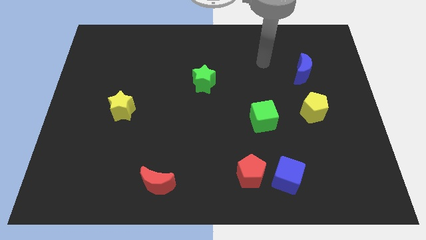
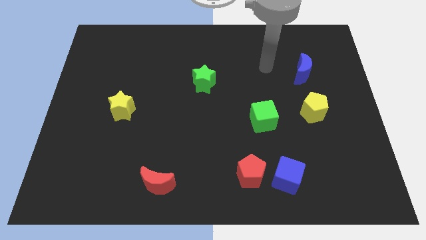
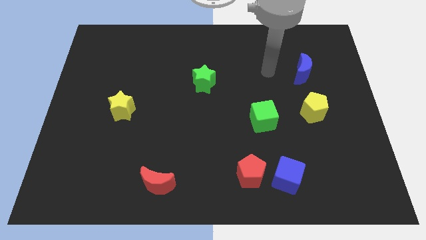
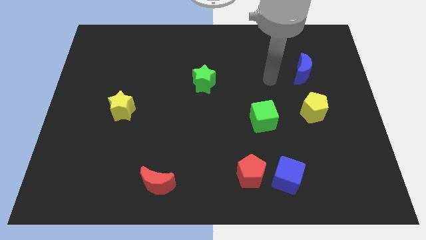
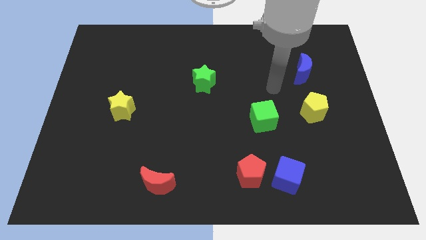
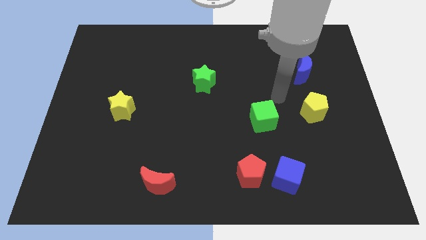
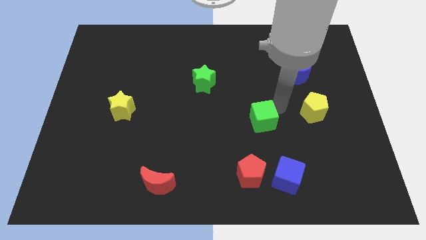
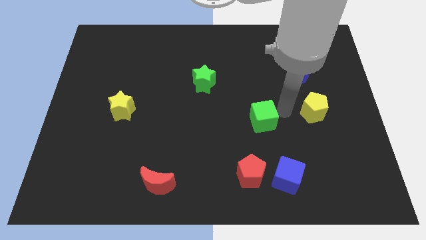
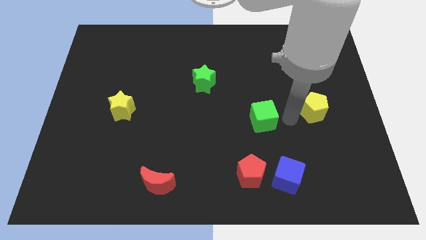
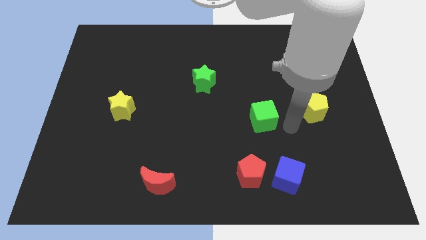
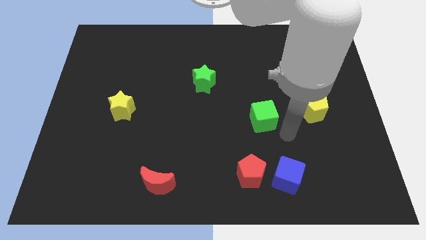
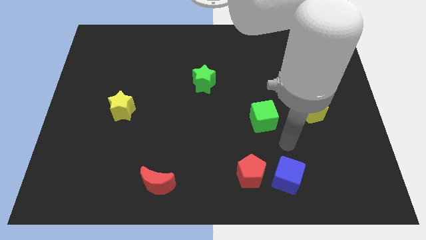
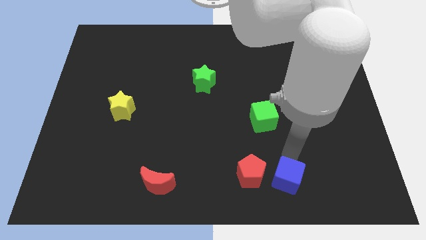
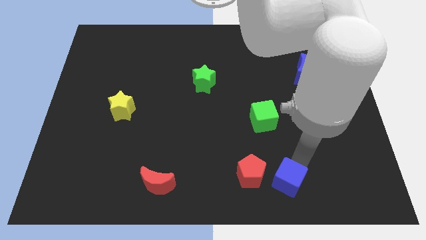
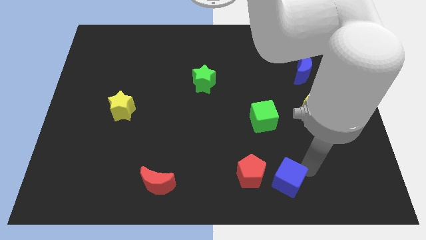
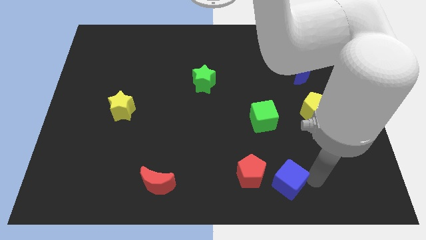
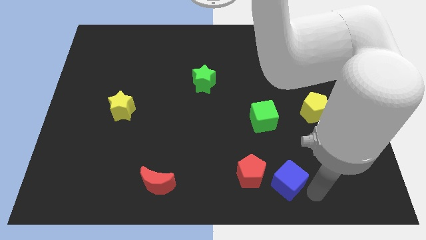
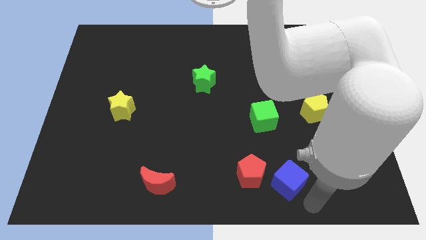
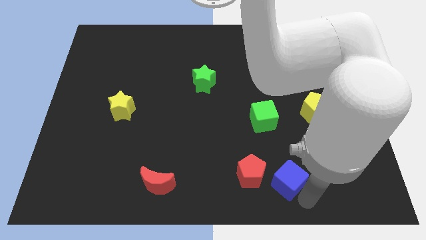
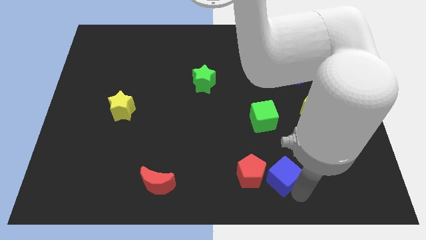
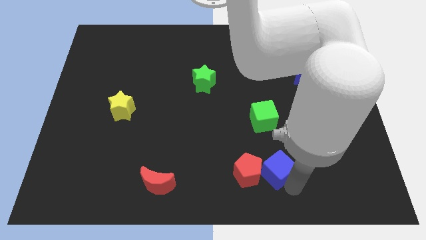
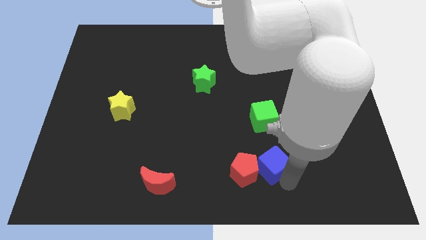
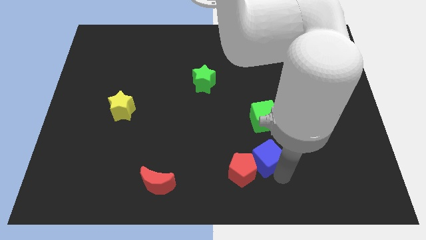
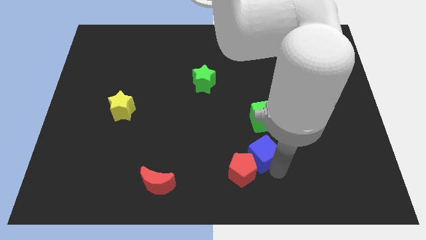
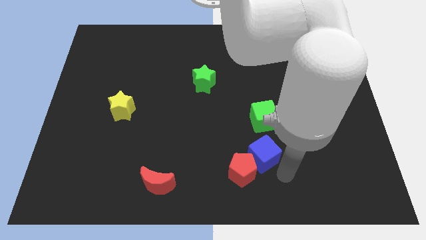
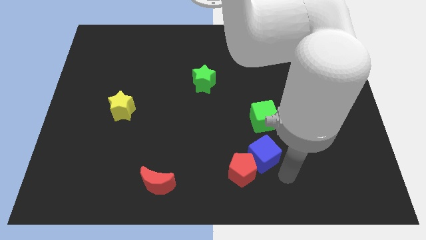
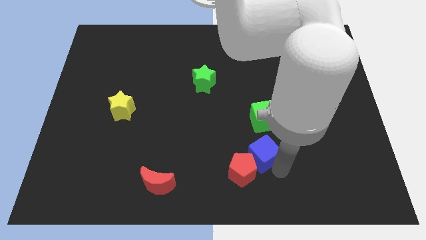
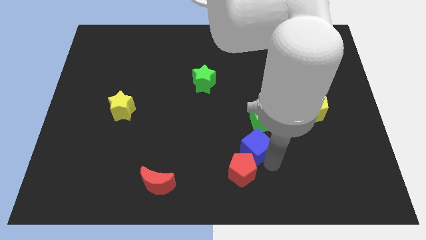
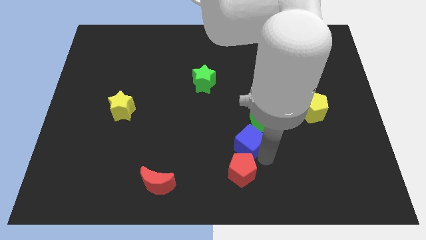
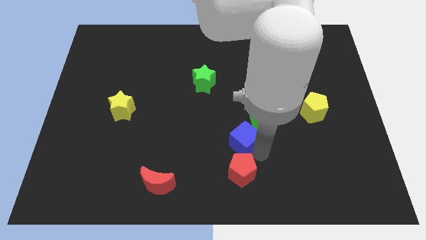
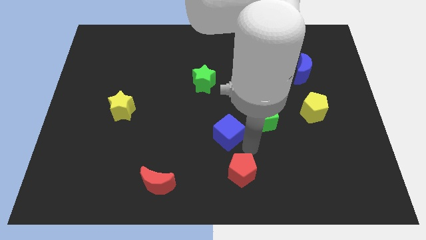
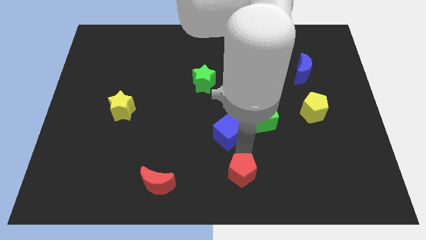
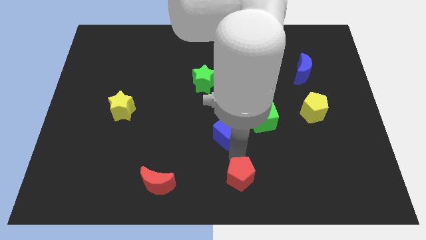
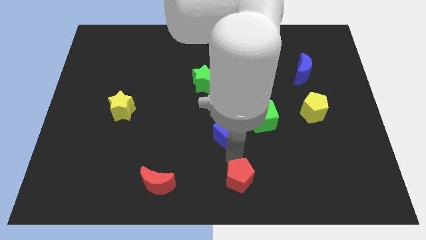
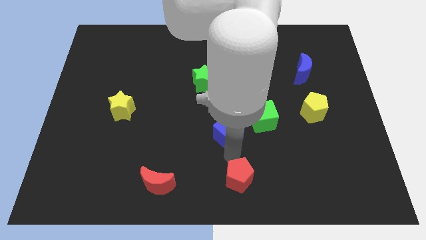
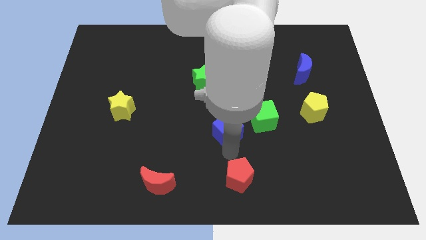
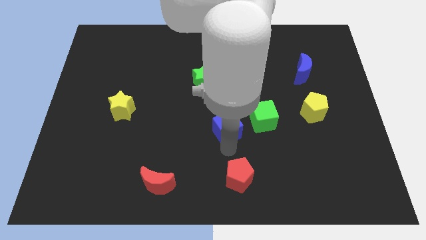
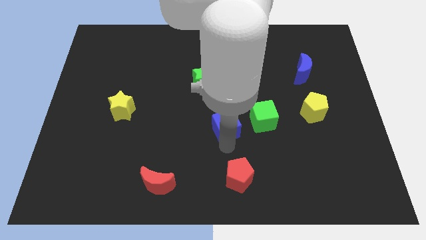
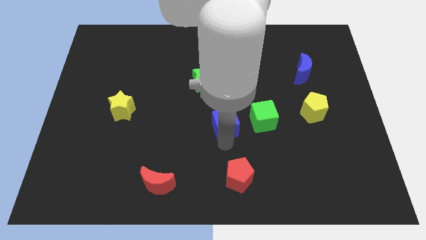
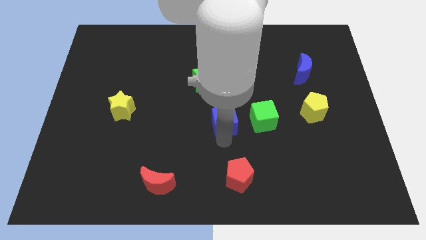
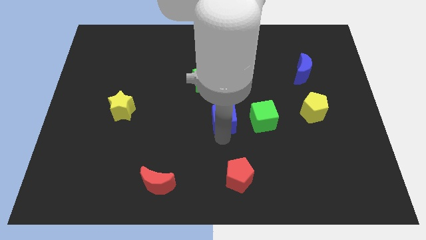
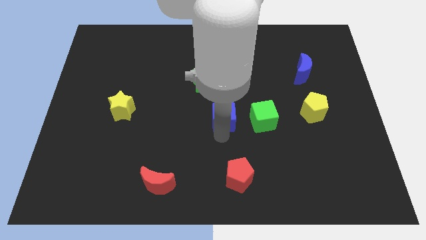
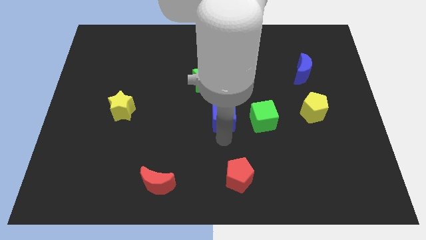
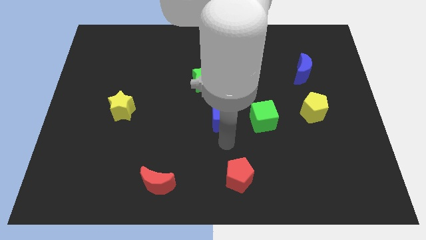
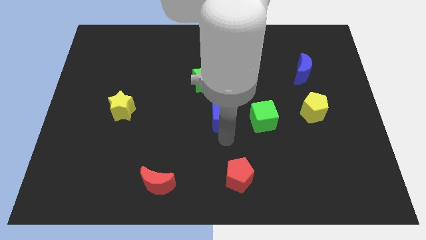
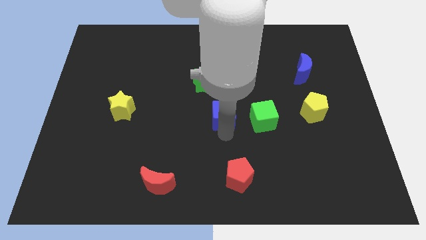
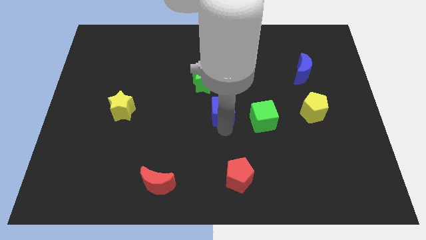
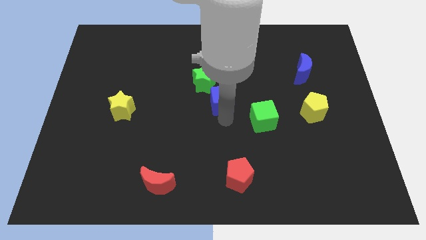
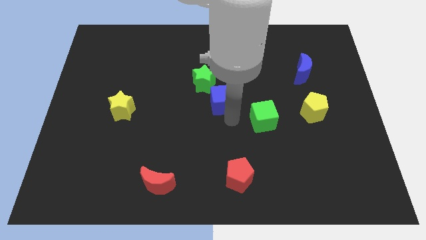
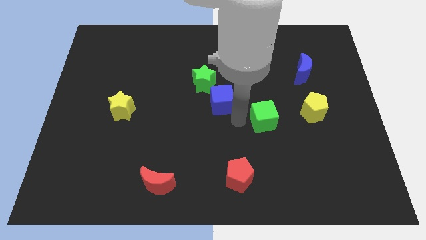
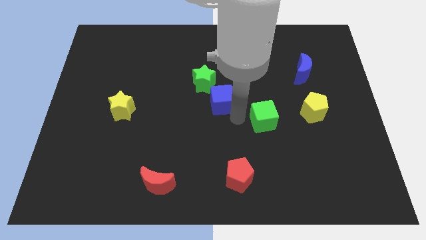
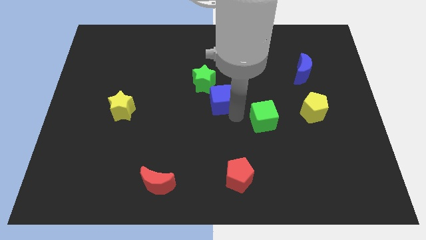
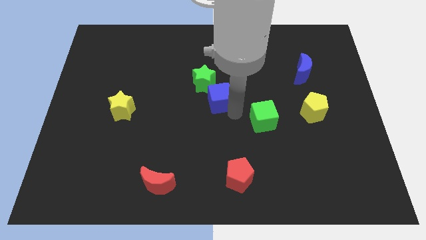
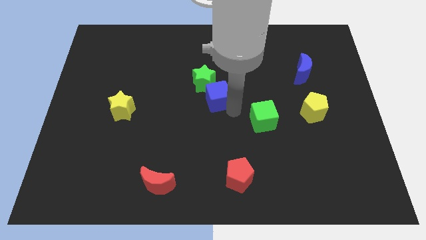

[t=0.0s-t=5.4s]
put the blue cube close to the green star

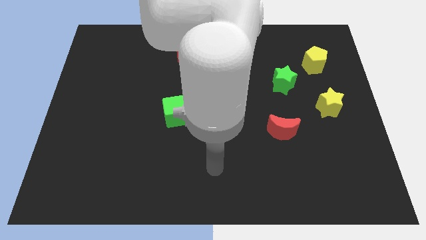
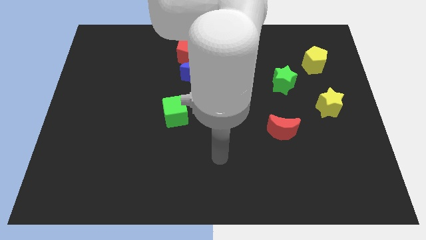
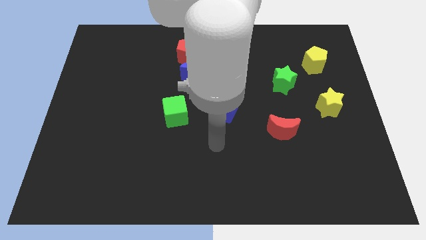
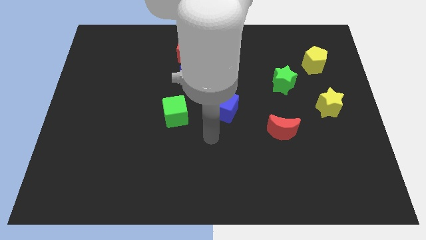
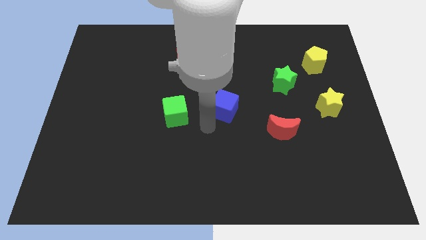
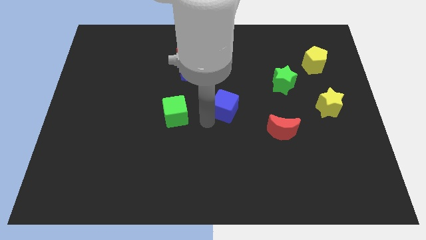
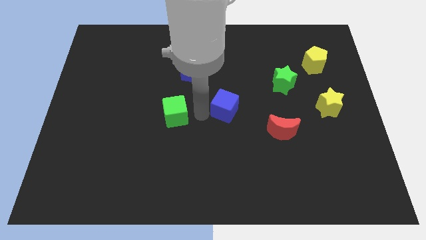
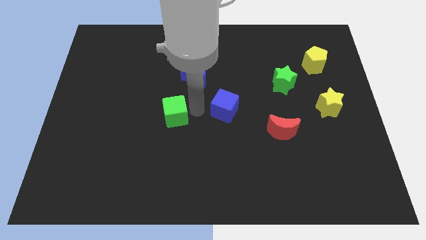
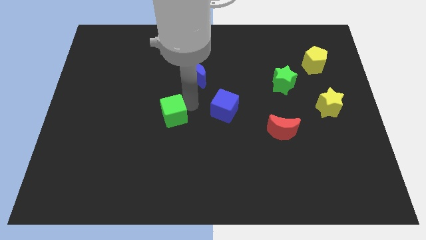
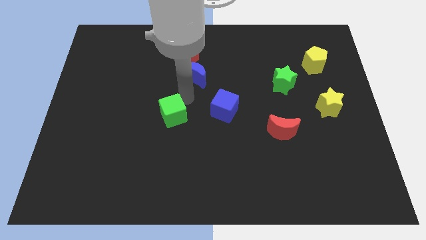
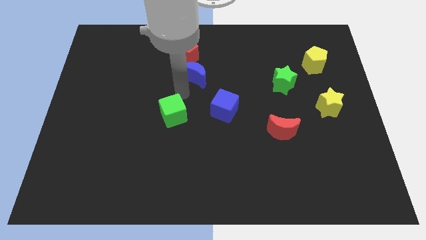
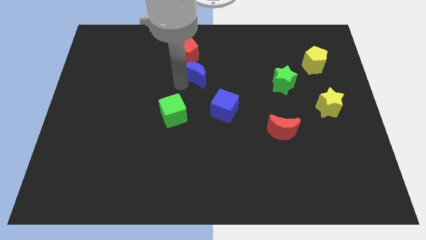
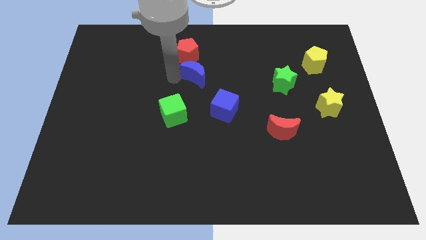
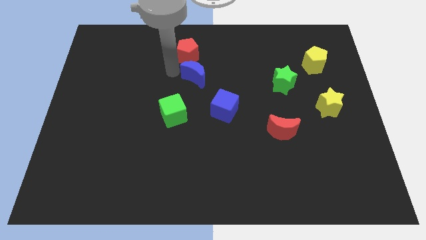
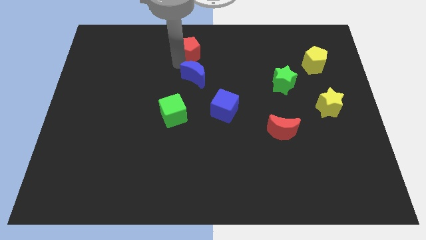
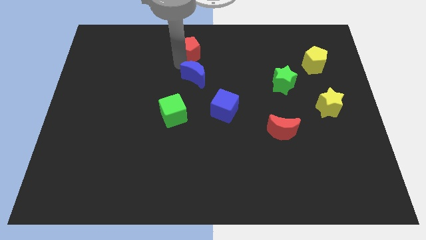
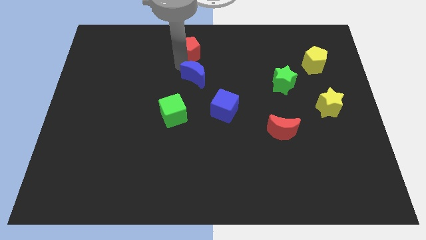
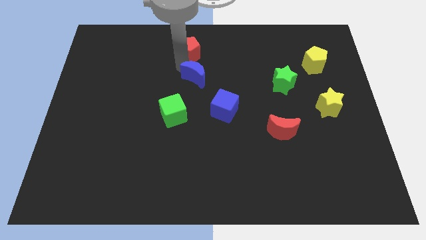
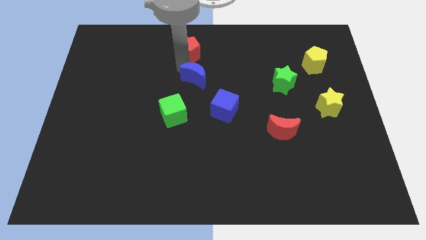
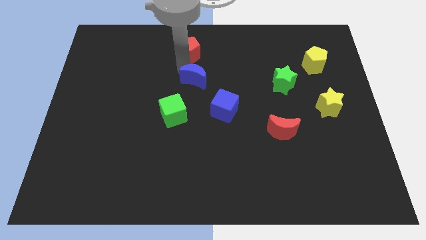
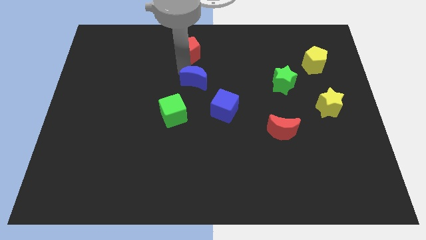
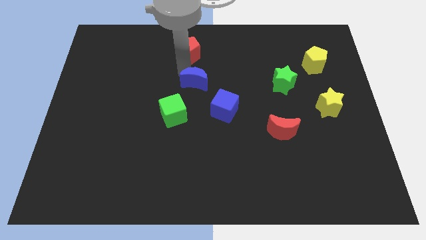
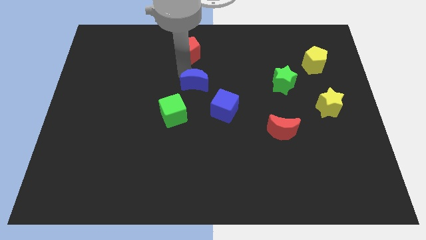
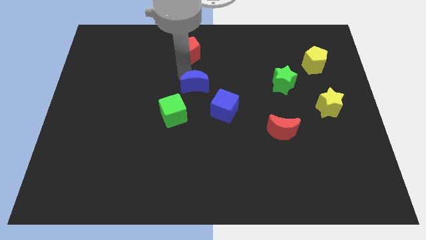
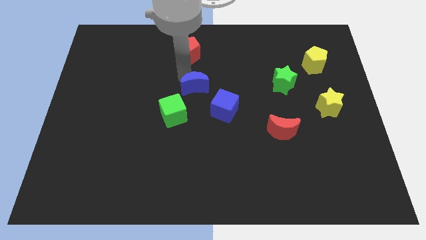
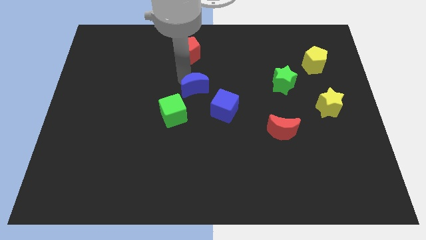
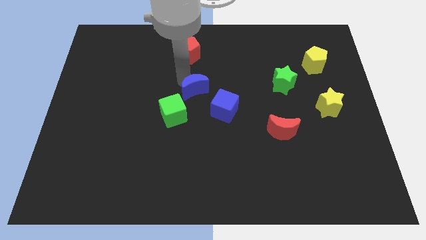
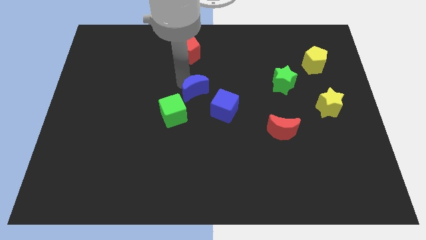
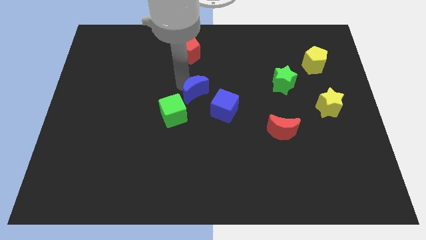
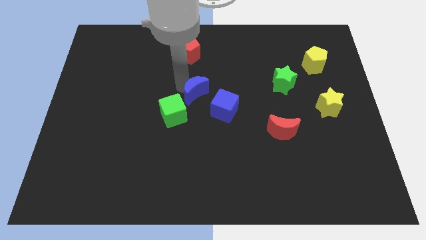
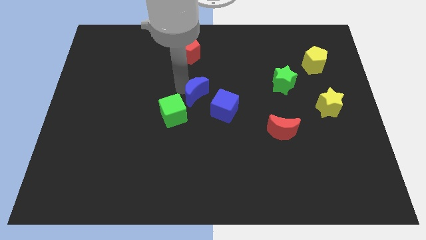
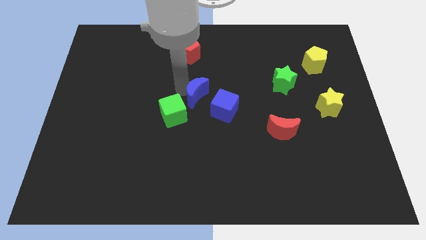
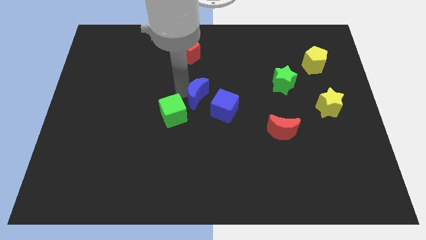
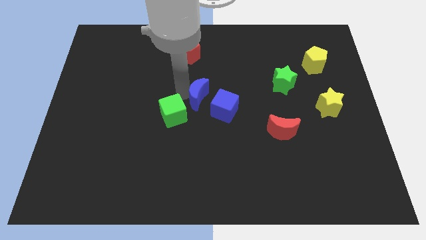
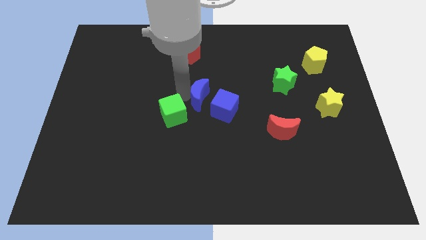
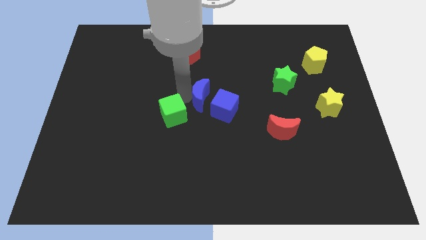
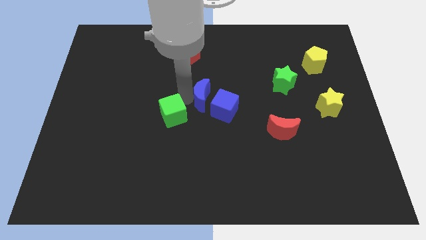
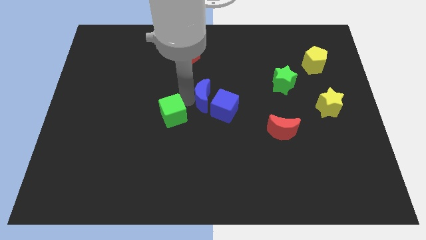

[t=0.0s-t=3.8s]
push the blue moon close to the blue cube
